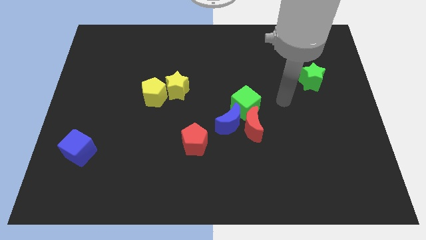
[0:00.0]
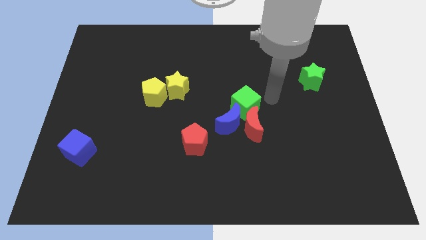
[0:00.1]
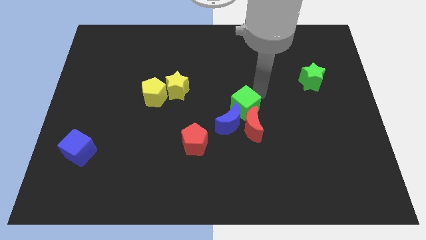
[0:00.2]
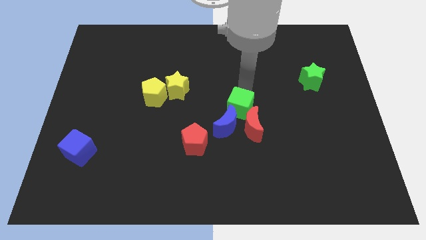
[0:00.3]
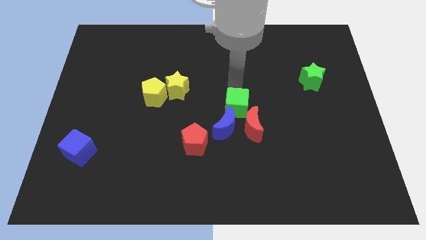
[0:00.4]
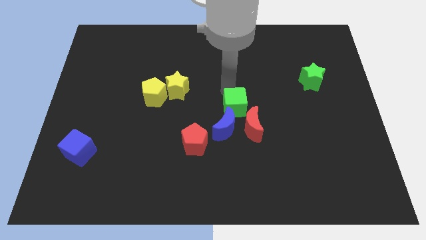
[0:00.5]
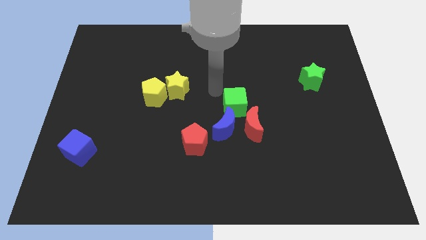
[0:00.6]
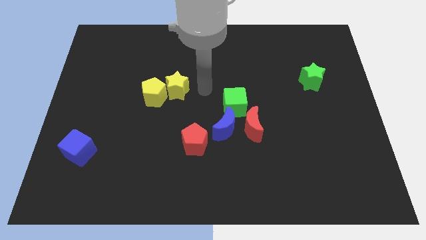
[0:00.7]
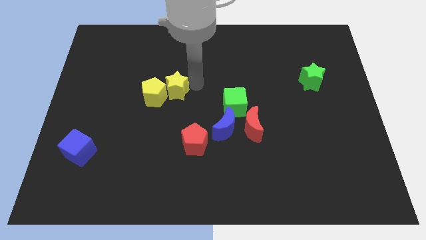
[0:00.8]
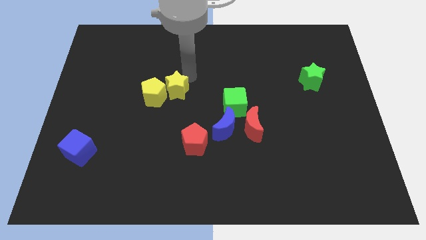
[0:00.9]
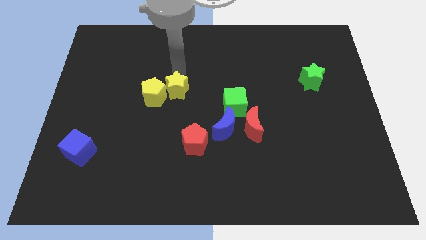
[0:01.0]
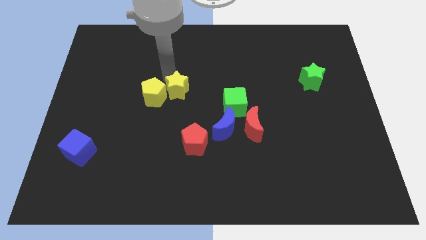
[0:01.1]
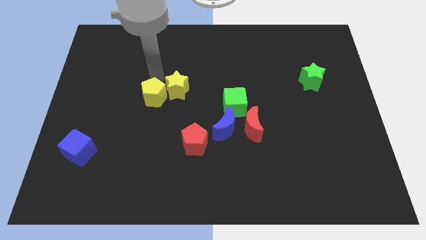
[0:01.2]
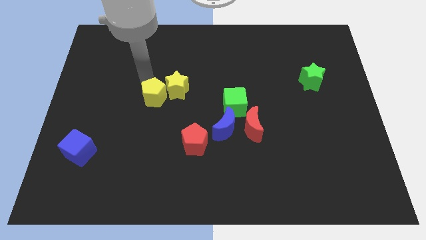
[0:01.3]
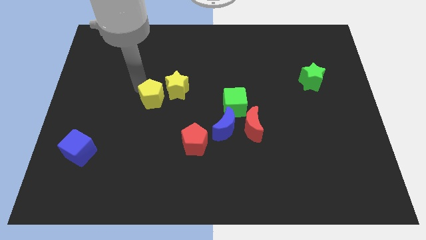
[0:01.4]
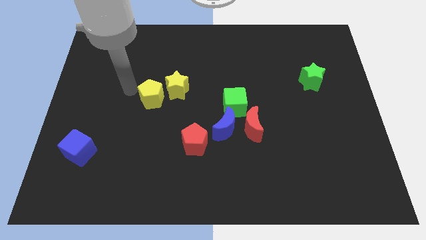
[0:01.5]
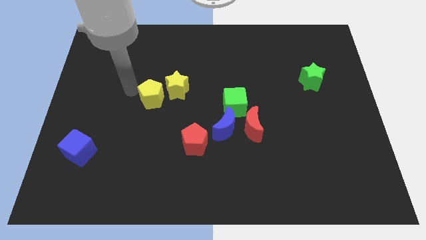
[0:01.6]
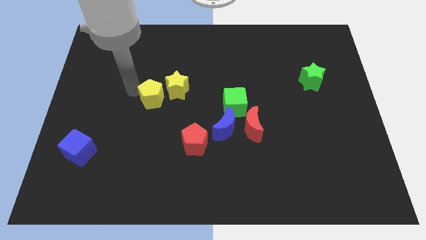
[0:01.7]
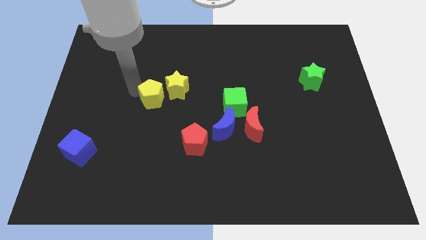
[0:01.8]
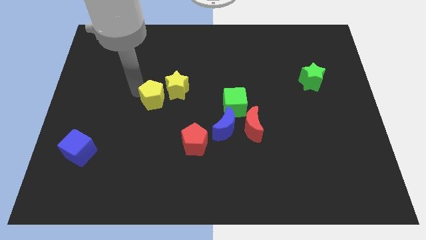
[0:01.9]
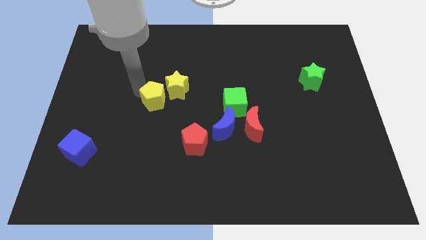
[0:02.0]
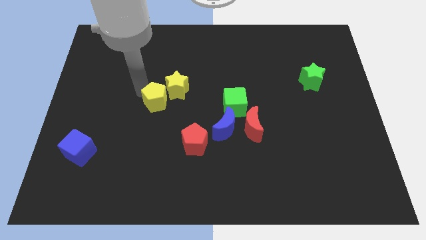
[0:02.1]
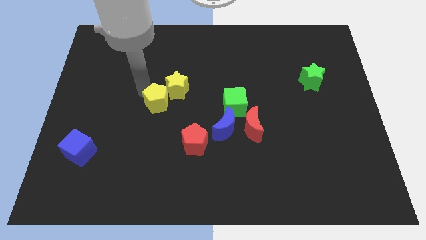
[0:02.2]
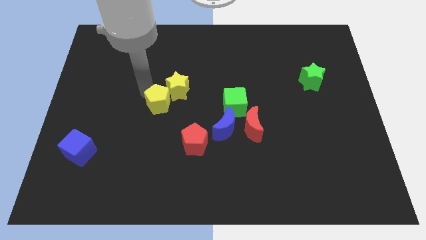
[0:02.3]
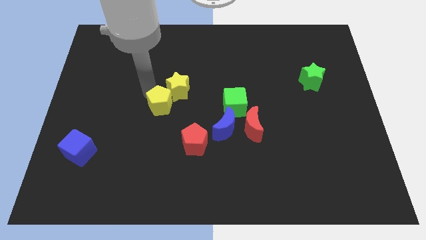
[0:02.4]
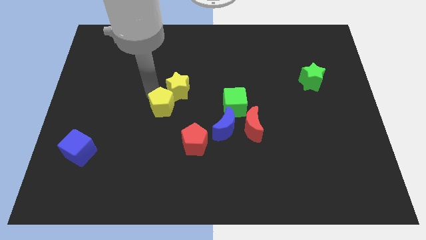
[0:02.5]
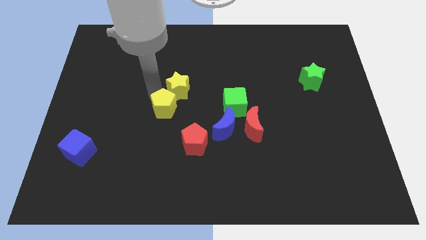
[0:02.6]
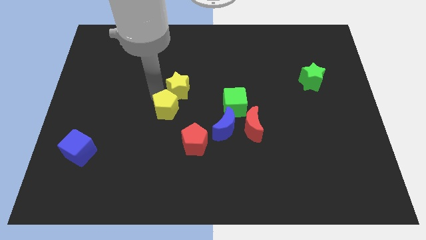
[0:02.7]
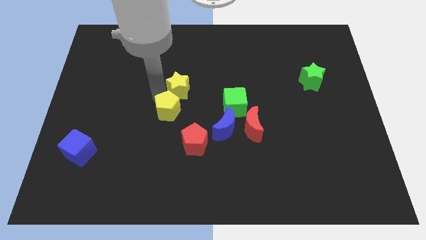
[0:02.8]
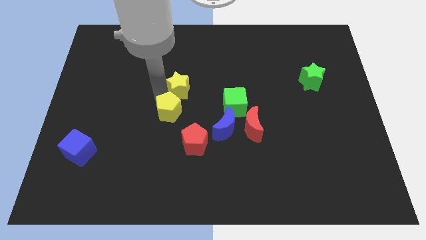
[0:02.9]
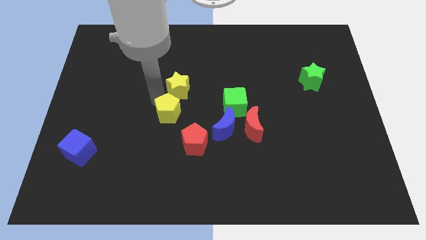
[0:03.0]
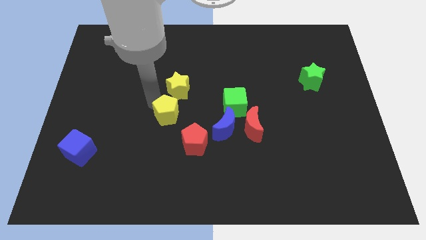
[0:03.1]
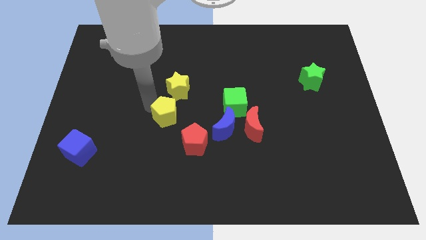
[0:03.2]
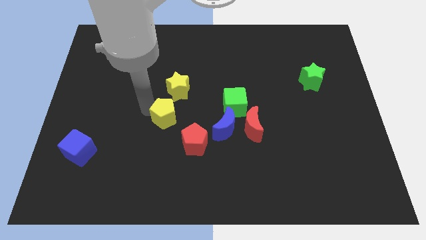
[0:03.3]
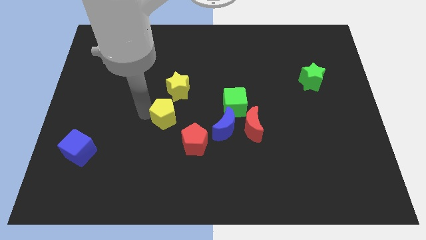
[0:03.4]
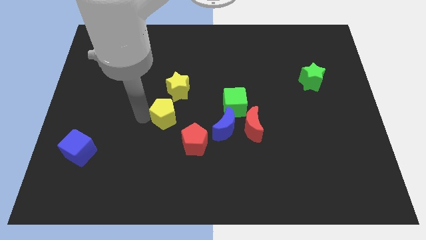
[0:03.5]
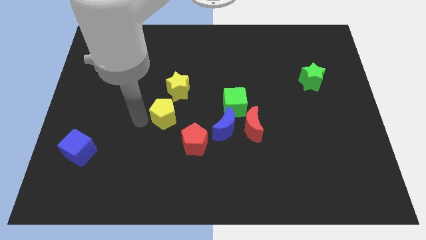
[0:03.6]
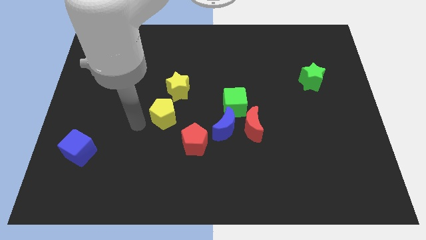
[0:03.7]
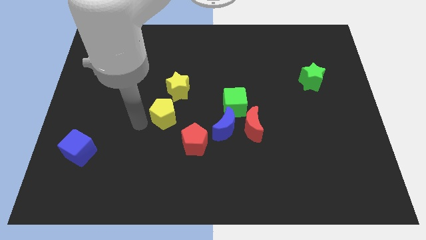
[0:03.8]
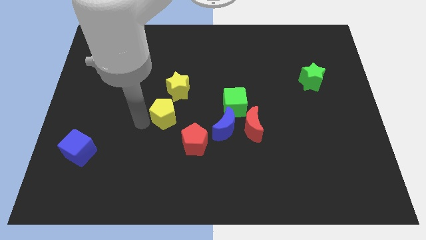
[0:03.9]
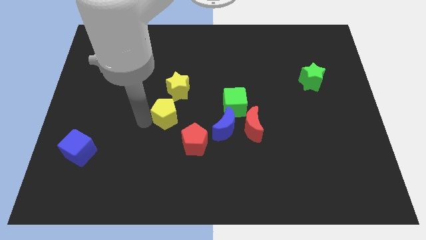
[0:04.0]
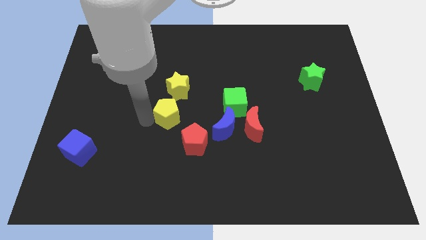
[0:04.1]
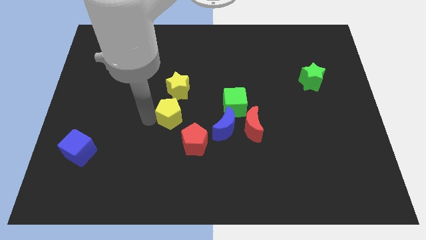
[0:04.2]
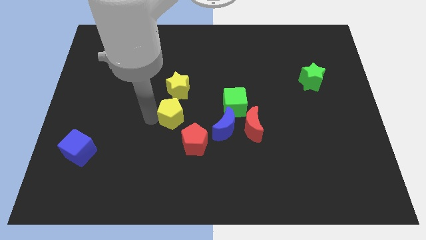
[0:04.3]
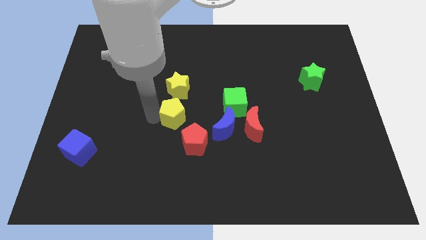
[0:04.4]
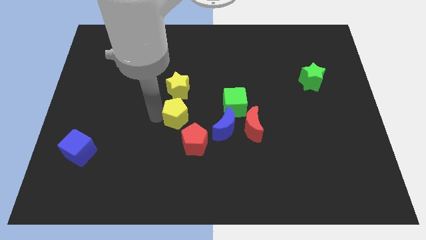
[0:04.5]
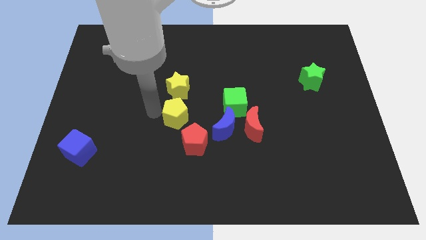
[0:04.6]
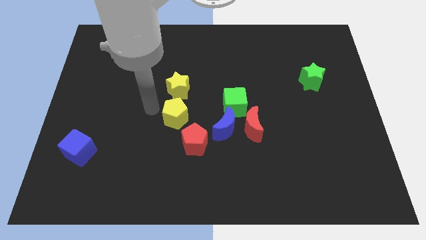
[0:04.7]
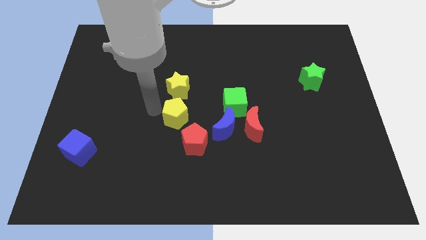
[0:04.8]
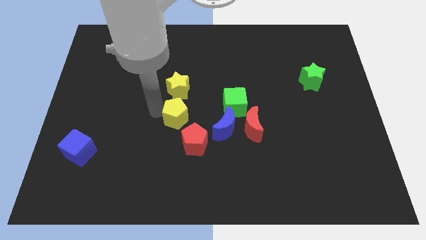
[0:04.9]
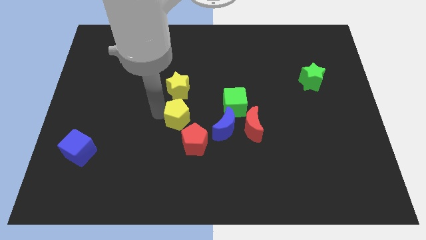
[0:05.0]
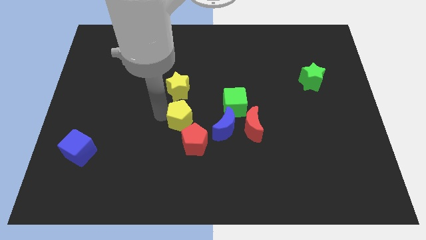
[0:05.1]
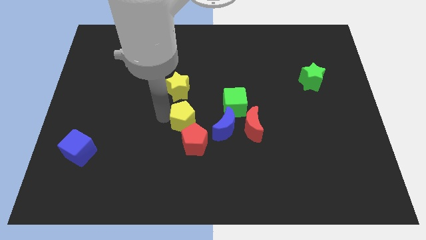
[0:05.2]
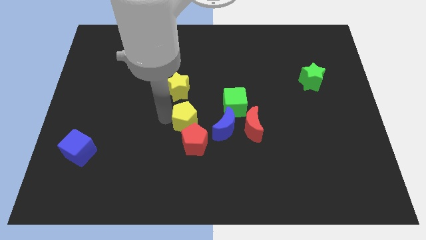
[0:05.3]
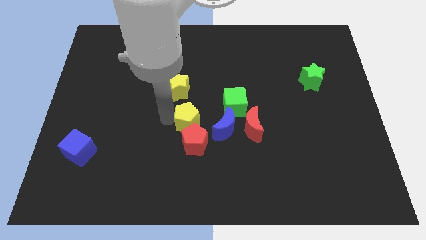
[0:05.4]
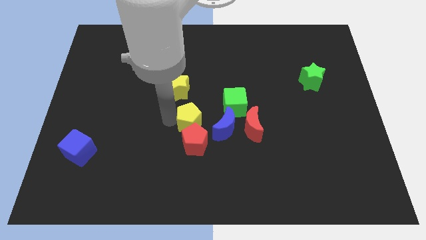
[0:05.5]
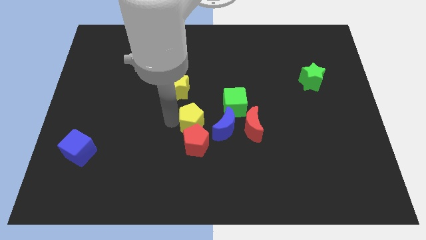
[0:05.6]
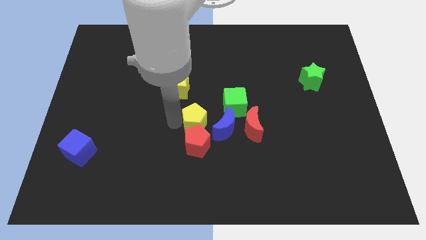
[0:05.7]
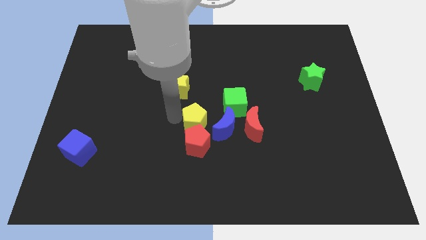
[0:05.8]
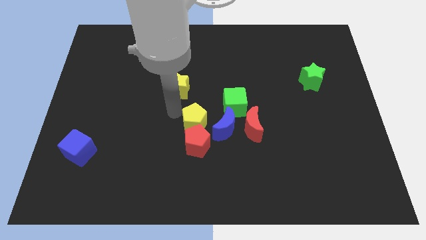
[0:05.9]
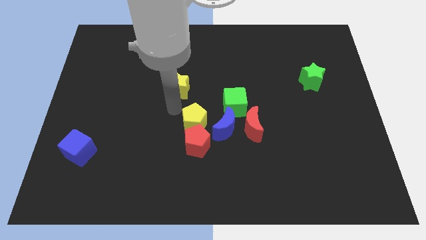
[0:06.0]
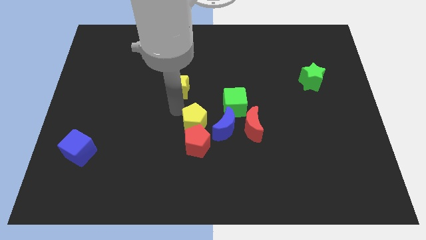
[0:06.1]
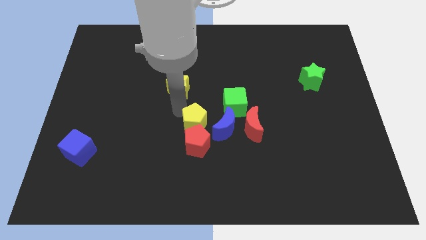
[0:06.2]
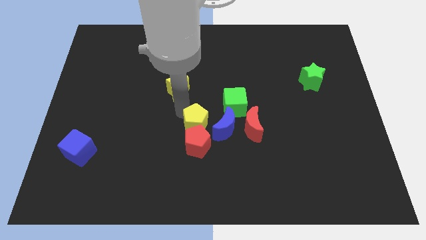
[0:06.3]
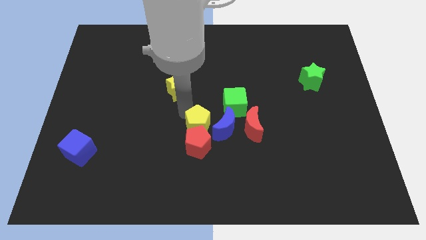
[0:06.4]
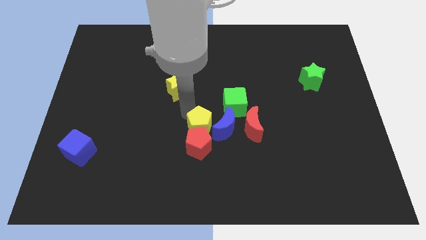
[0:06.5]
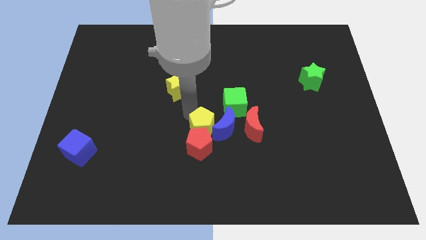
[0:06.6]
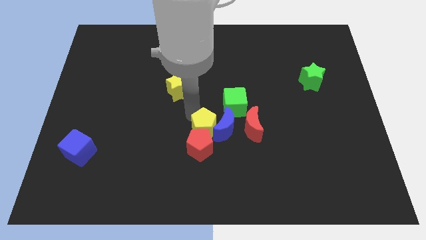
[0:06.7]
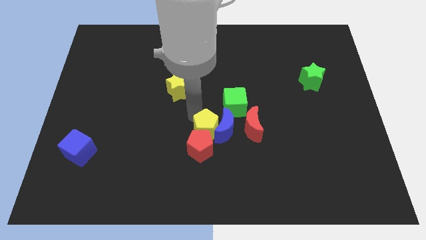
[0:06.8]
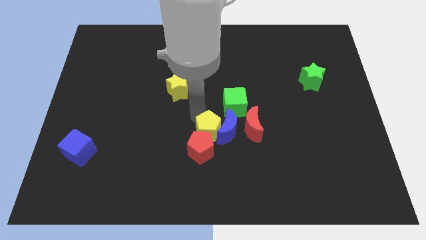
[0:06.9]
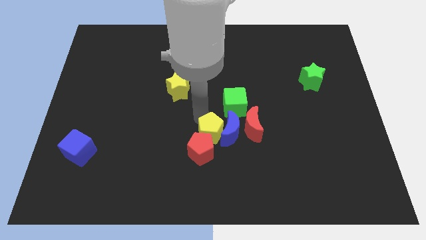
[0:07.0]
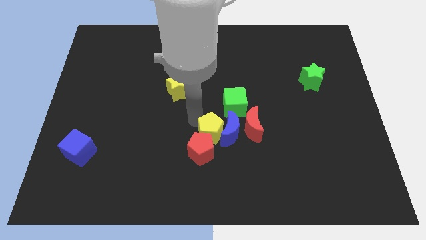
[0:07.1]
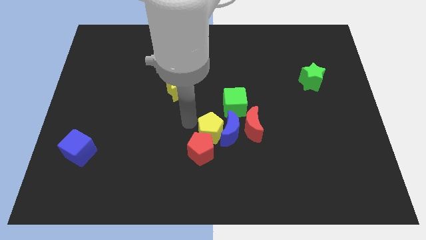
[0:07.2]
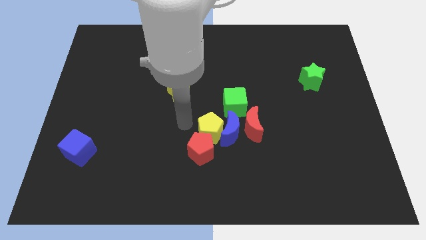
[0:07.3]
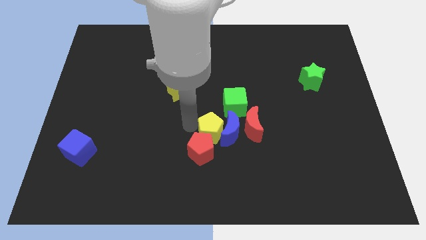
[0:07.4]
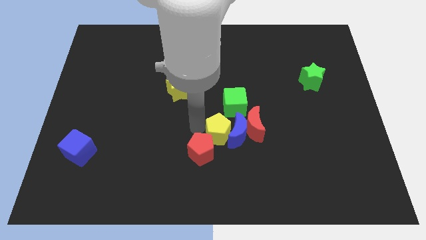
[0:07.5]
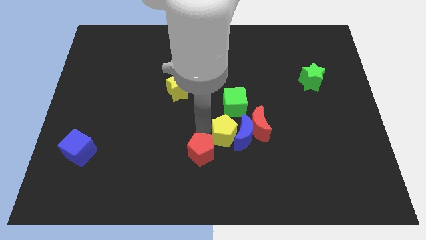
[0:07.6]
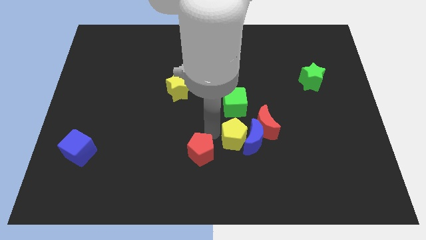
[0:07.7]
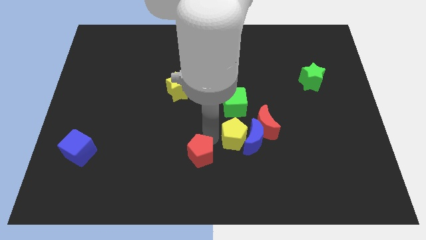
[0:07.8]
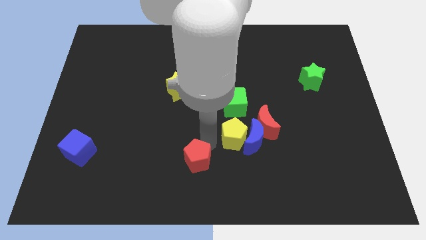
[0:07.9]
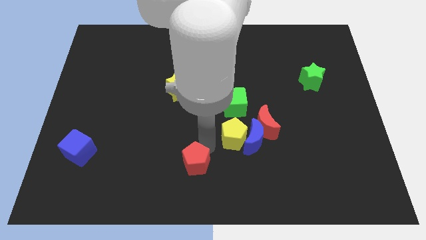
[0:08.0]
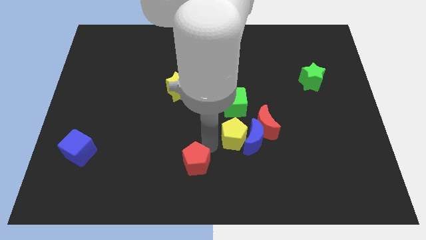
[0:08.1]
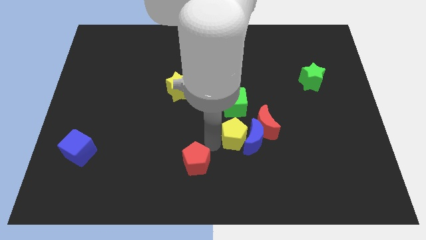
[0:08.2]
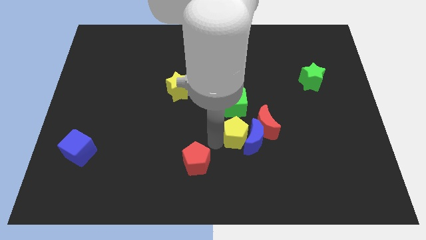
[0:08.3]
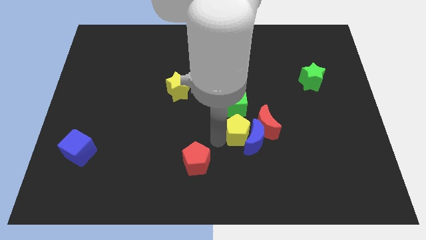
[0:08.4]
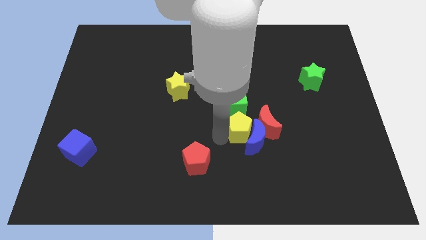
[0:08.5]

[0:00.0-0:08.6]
push the yellow pentagon to the red moon
